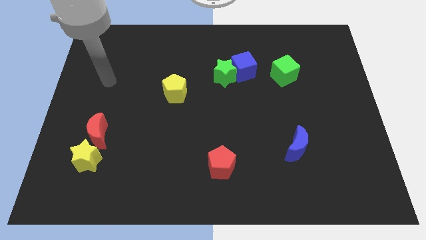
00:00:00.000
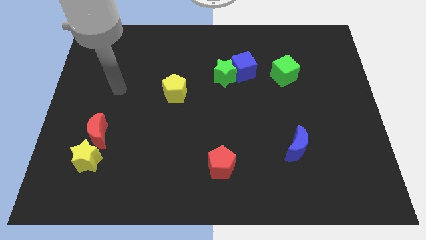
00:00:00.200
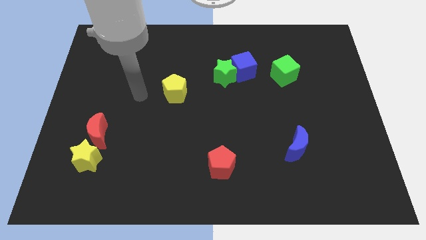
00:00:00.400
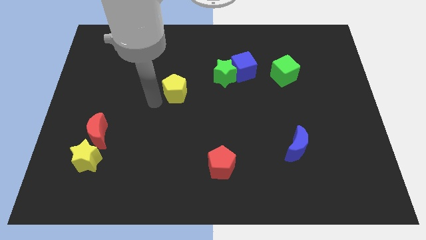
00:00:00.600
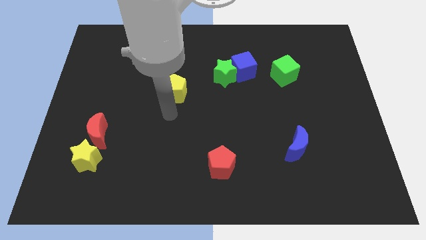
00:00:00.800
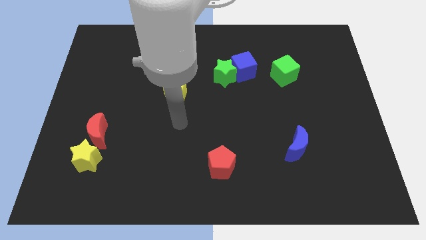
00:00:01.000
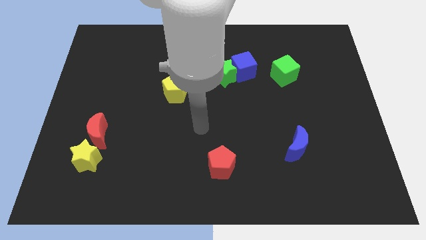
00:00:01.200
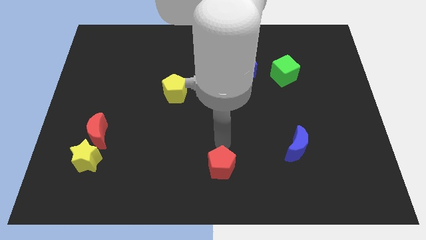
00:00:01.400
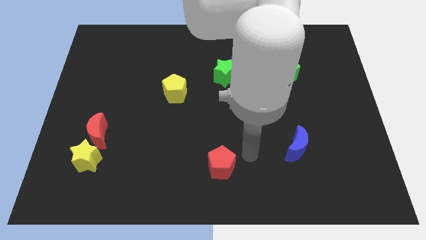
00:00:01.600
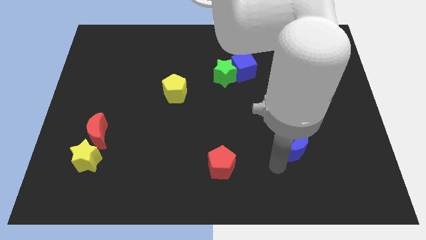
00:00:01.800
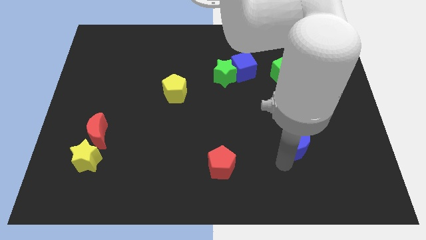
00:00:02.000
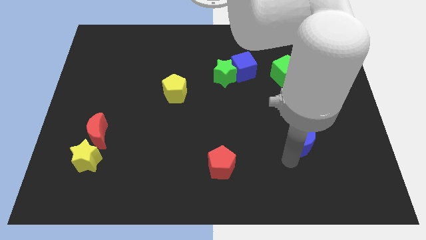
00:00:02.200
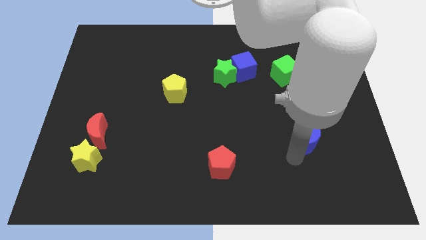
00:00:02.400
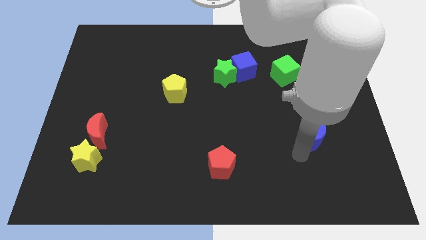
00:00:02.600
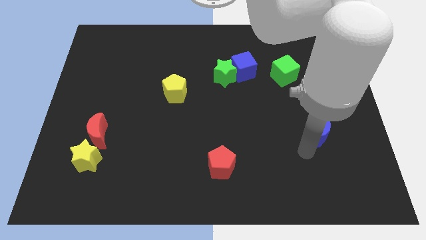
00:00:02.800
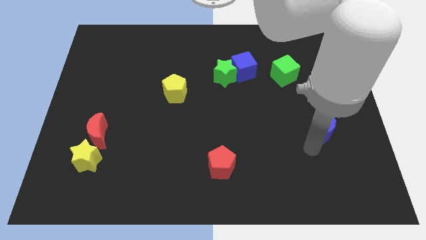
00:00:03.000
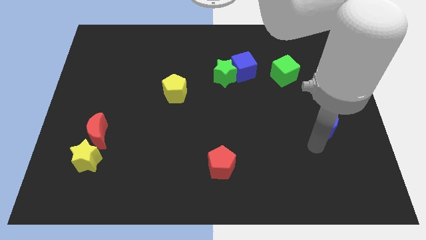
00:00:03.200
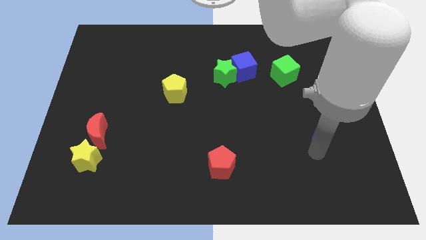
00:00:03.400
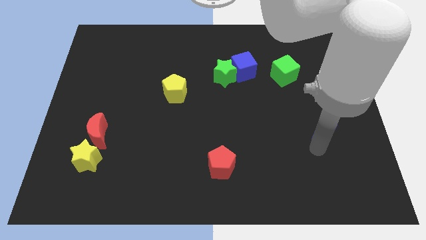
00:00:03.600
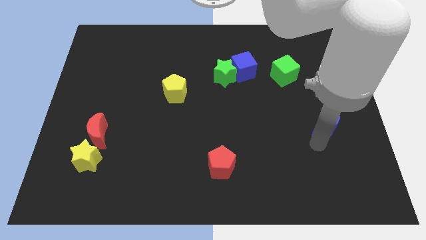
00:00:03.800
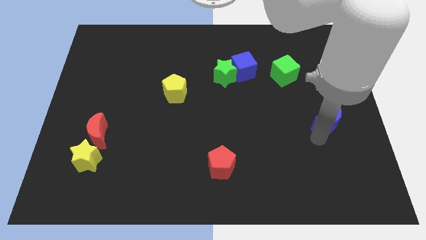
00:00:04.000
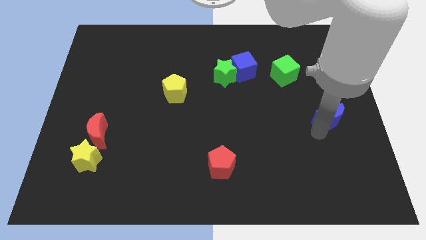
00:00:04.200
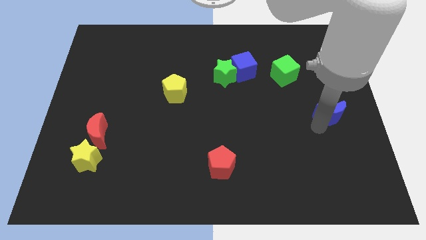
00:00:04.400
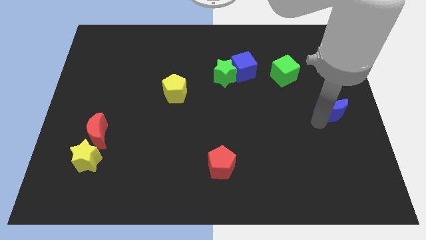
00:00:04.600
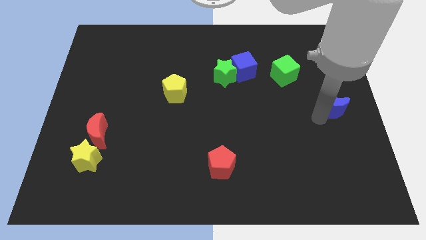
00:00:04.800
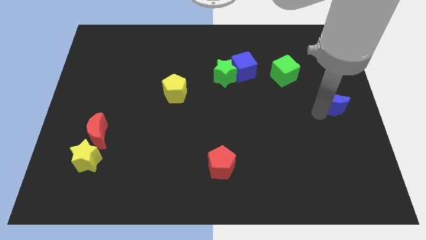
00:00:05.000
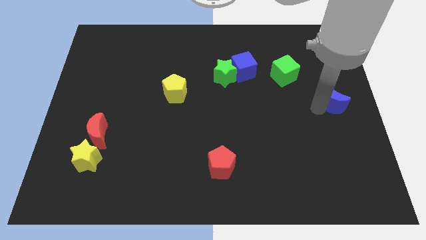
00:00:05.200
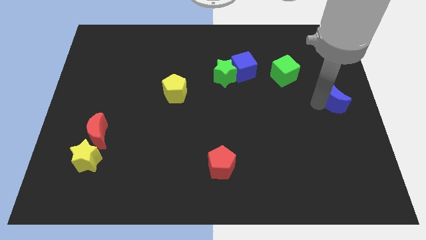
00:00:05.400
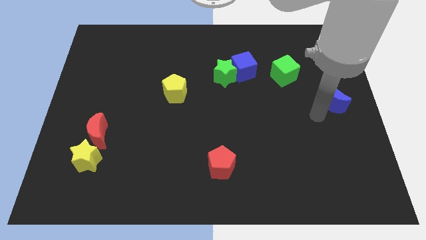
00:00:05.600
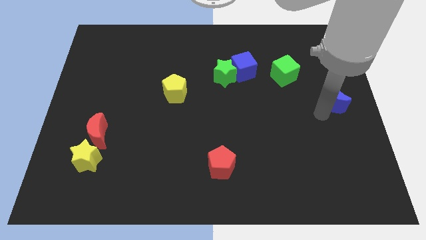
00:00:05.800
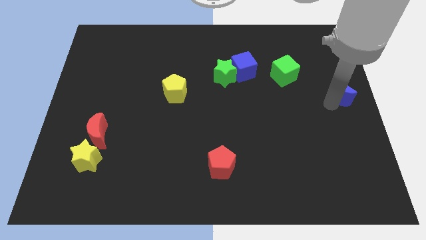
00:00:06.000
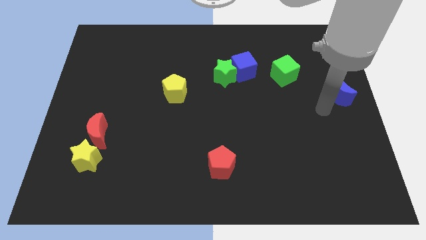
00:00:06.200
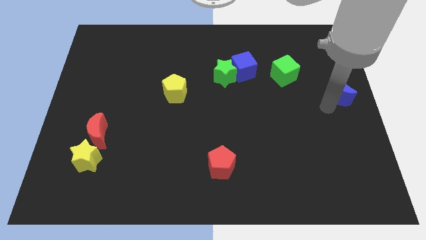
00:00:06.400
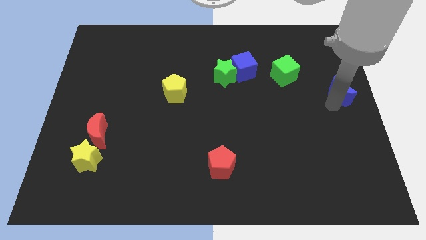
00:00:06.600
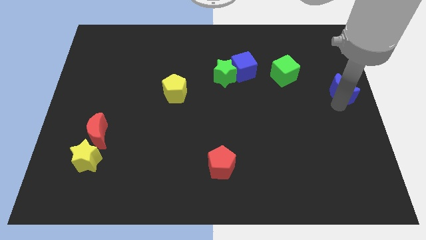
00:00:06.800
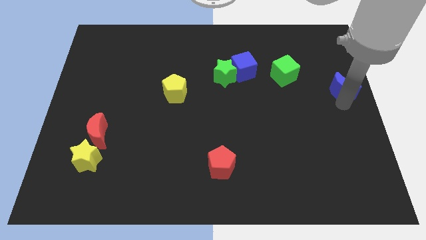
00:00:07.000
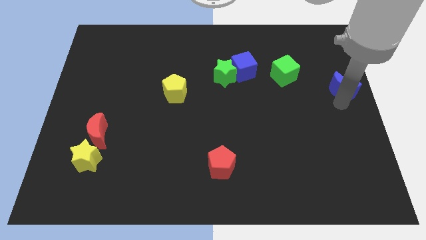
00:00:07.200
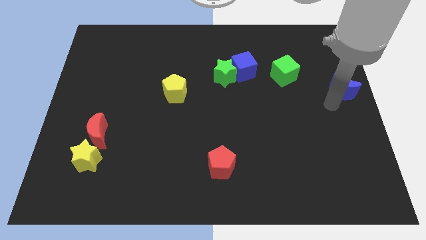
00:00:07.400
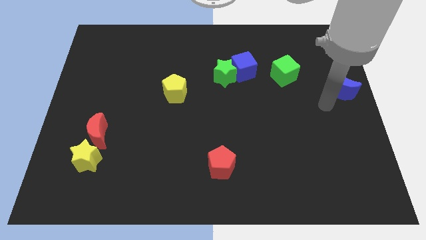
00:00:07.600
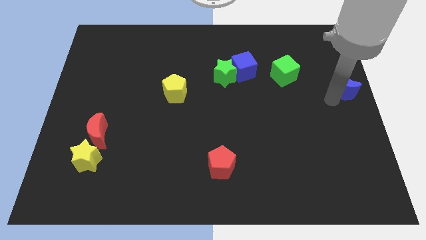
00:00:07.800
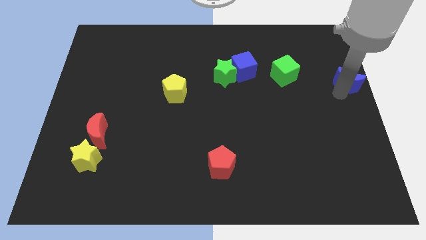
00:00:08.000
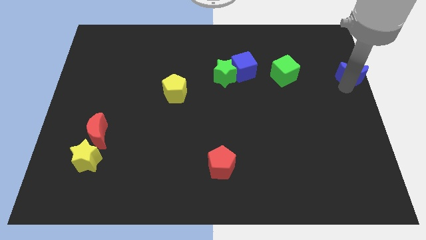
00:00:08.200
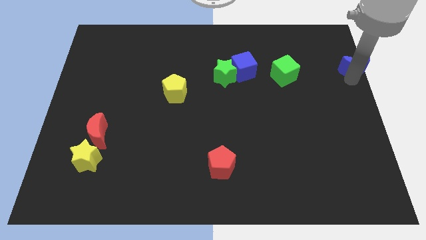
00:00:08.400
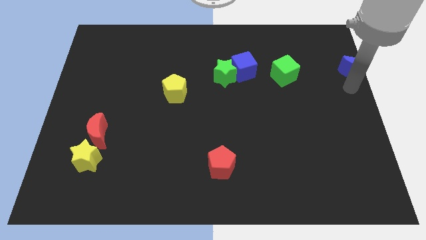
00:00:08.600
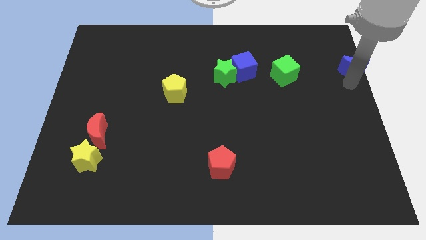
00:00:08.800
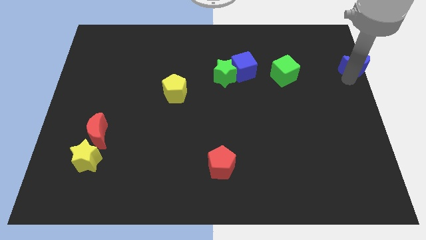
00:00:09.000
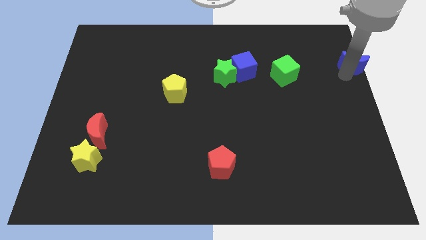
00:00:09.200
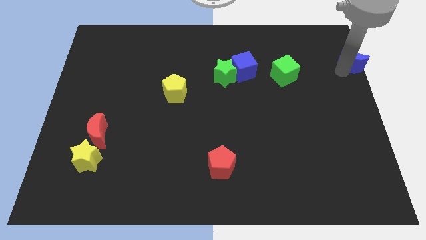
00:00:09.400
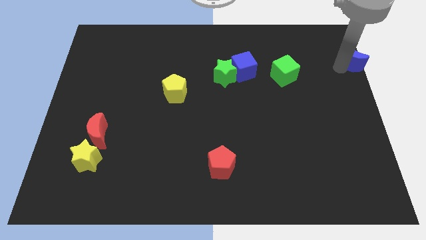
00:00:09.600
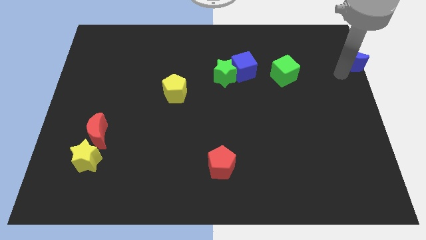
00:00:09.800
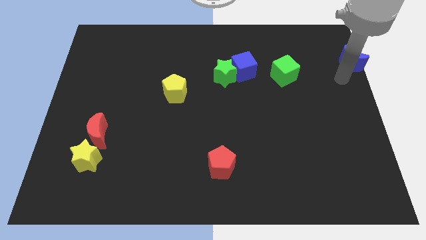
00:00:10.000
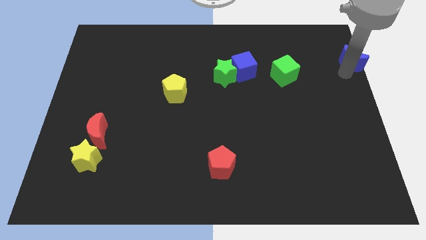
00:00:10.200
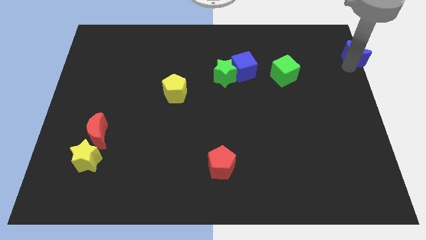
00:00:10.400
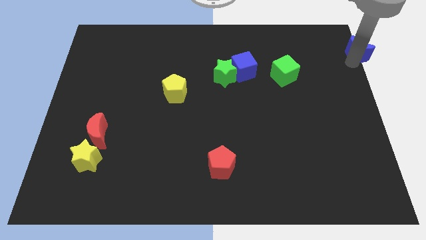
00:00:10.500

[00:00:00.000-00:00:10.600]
slide the blue moon to the upper right corner

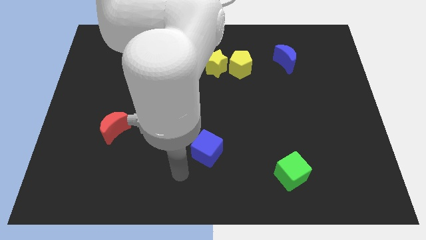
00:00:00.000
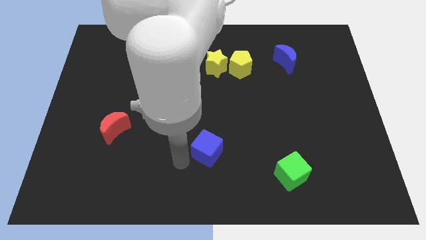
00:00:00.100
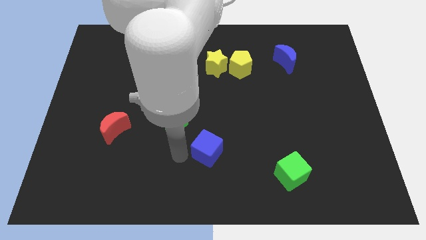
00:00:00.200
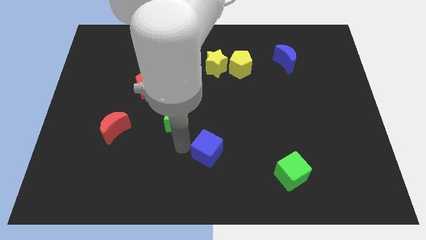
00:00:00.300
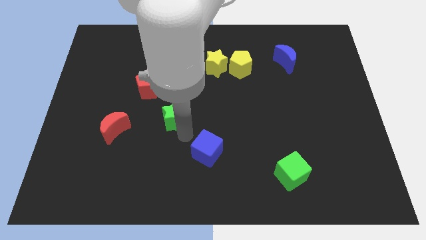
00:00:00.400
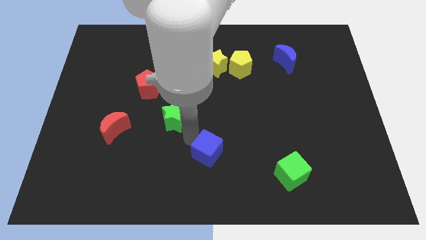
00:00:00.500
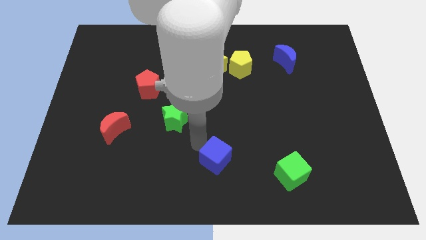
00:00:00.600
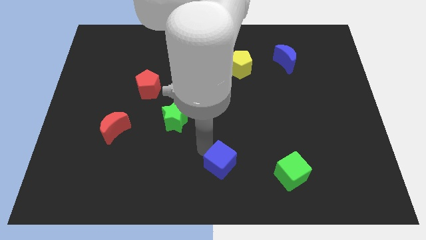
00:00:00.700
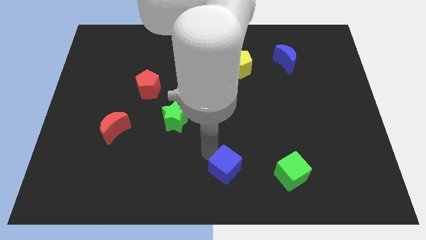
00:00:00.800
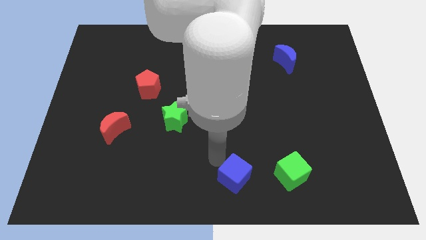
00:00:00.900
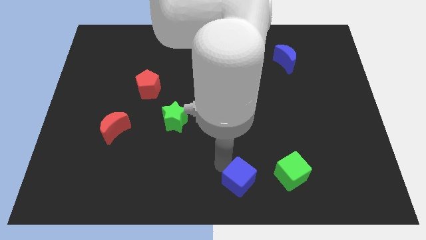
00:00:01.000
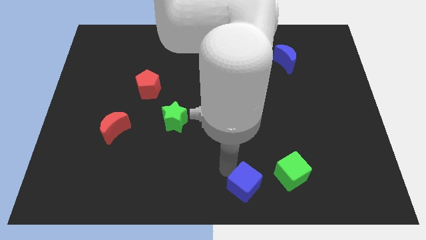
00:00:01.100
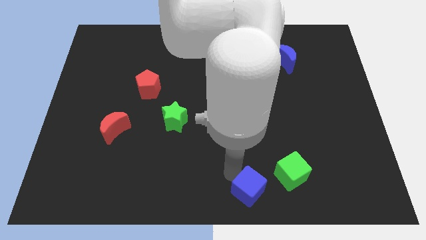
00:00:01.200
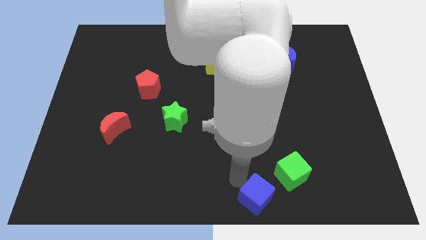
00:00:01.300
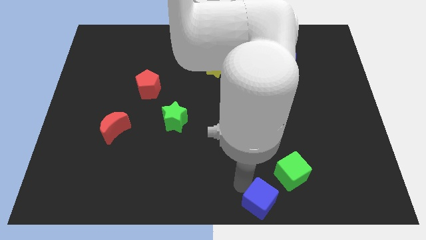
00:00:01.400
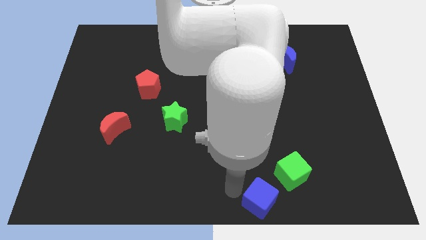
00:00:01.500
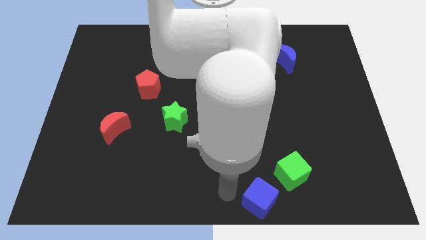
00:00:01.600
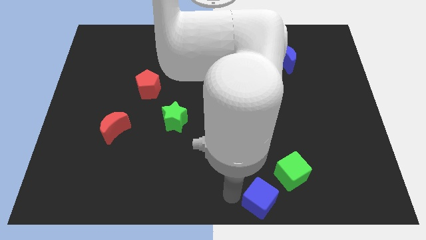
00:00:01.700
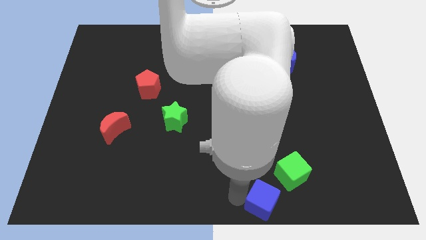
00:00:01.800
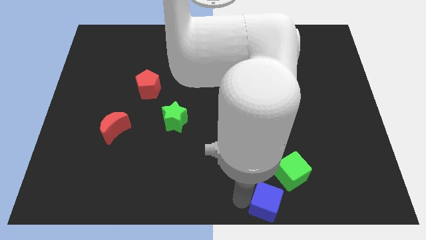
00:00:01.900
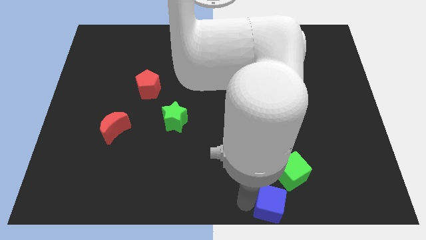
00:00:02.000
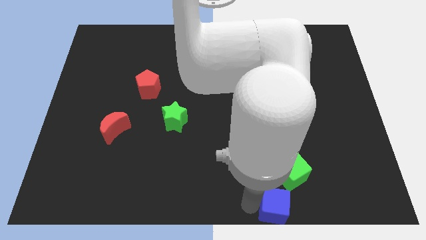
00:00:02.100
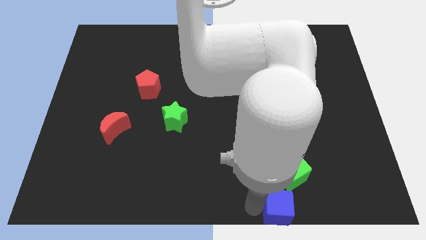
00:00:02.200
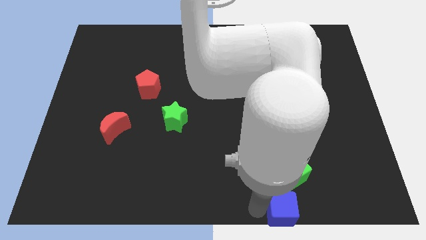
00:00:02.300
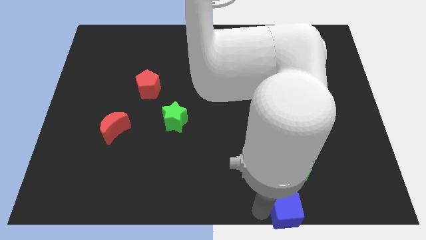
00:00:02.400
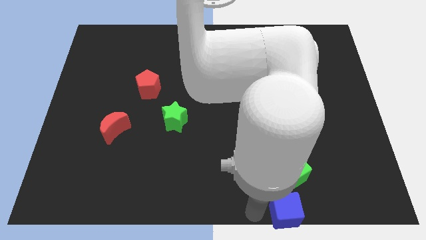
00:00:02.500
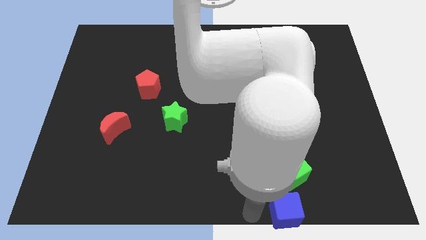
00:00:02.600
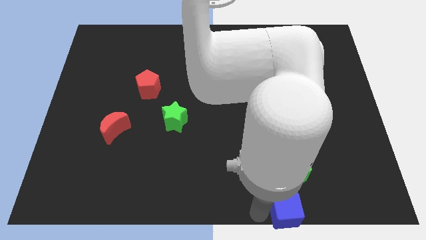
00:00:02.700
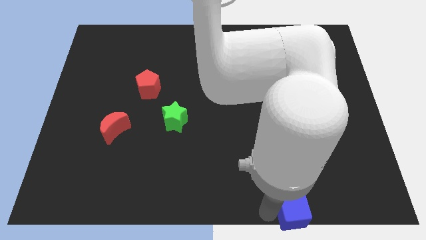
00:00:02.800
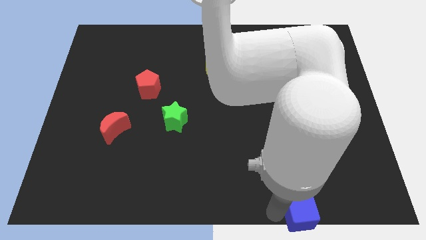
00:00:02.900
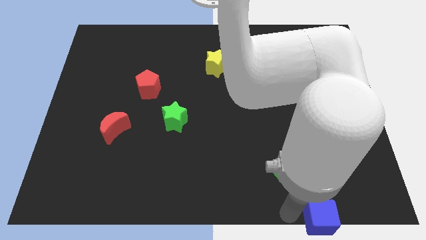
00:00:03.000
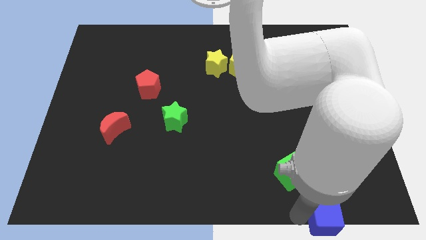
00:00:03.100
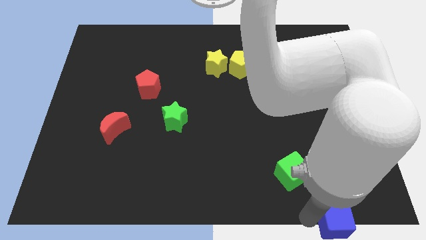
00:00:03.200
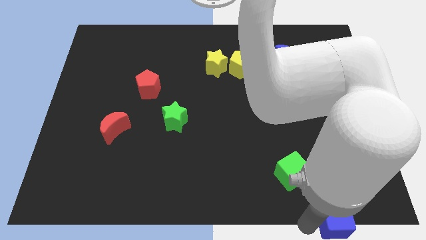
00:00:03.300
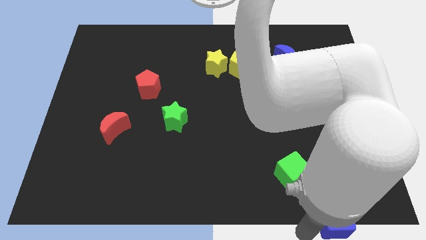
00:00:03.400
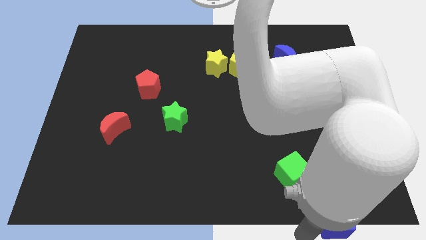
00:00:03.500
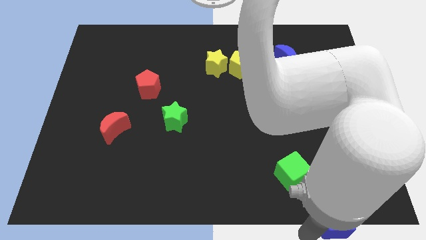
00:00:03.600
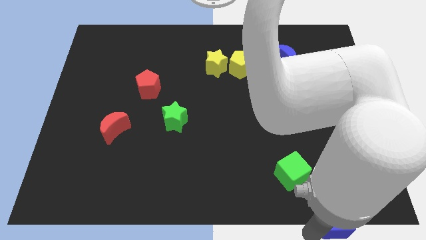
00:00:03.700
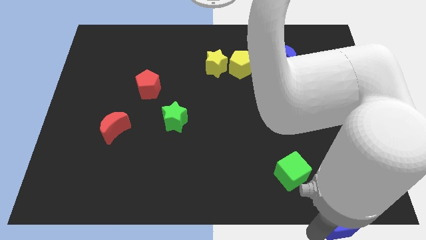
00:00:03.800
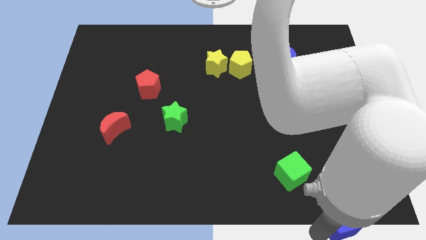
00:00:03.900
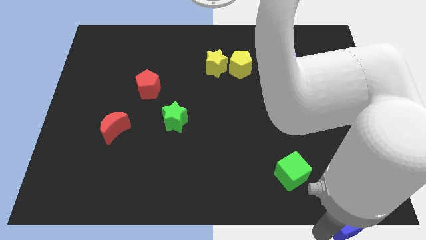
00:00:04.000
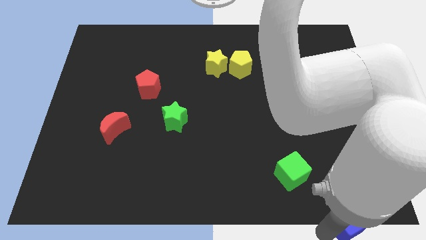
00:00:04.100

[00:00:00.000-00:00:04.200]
put the blue cube to the bottom right
